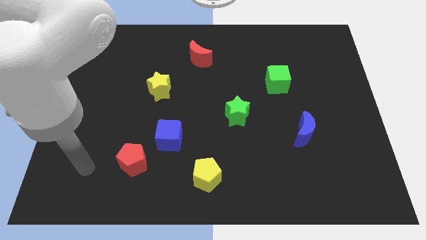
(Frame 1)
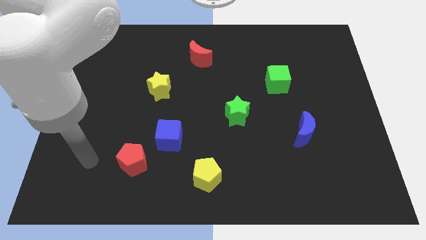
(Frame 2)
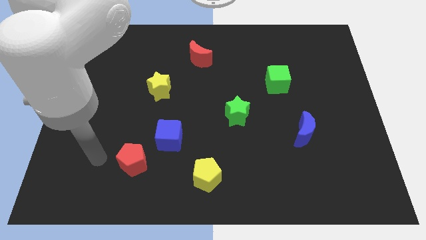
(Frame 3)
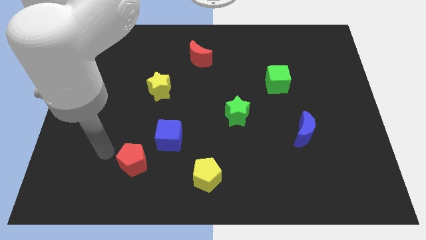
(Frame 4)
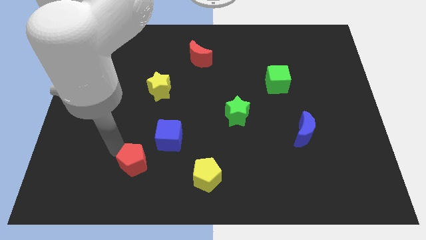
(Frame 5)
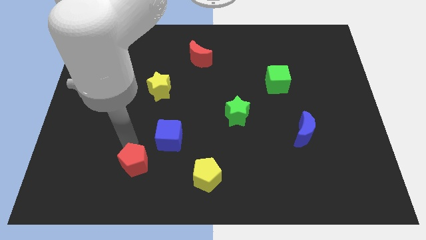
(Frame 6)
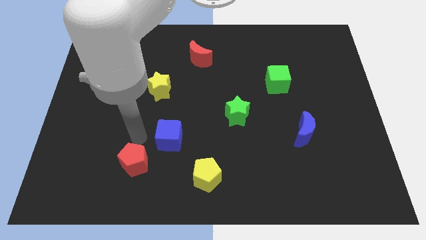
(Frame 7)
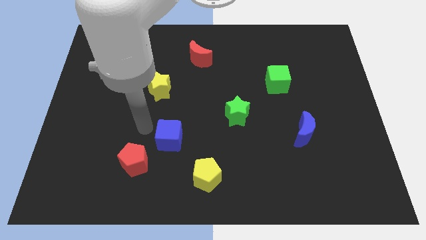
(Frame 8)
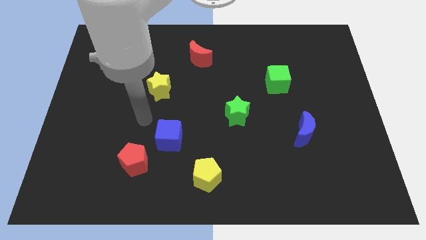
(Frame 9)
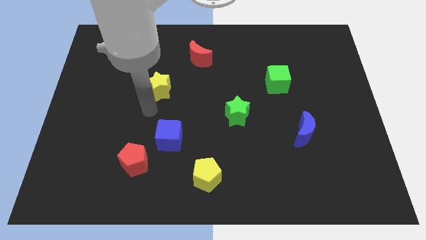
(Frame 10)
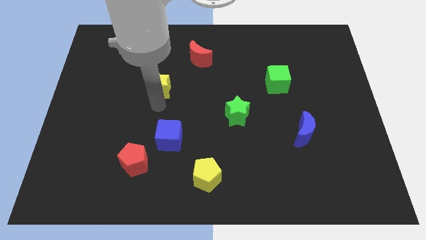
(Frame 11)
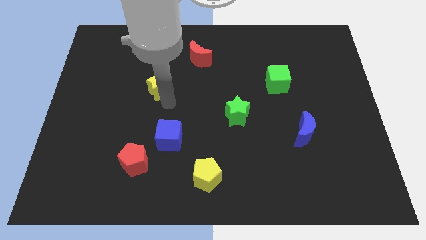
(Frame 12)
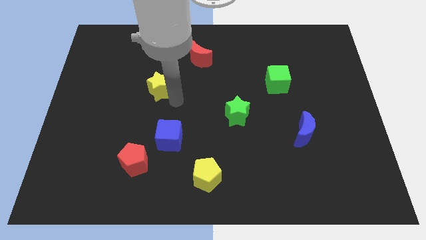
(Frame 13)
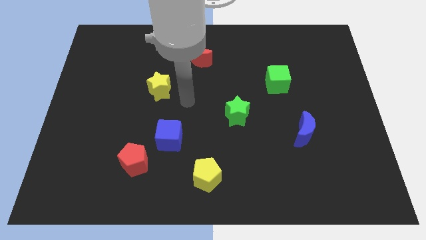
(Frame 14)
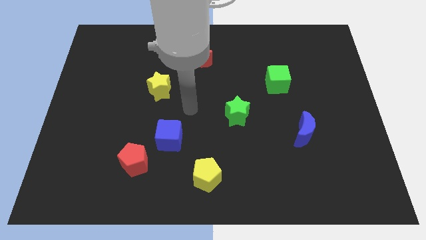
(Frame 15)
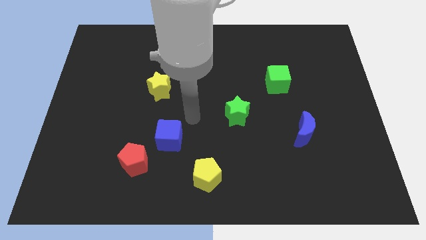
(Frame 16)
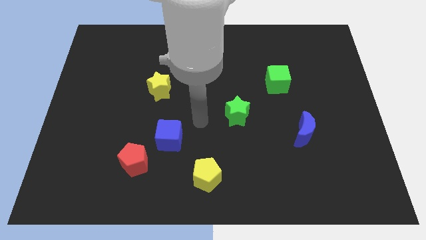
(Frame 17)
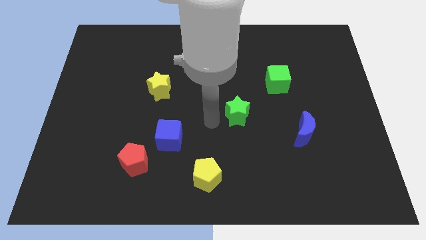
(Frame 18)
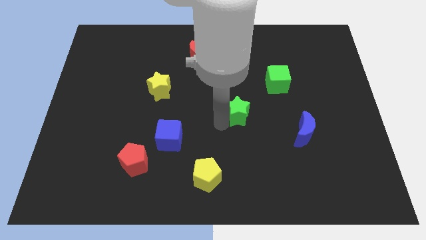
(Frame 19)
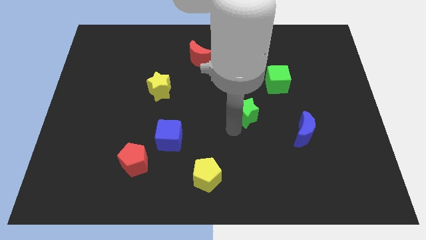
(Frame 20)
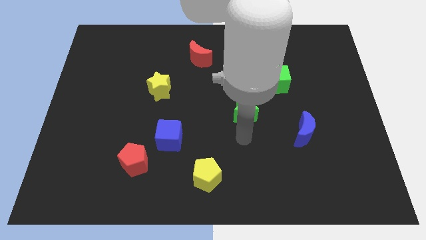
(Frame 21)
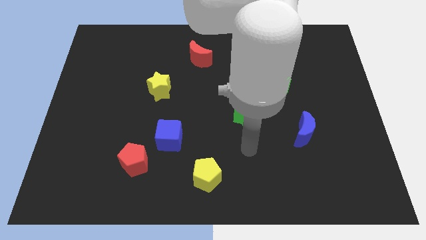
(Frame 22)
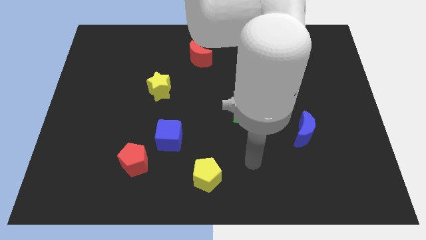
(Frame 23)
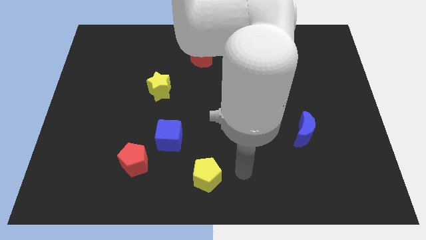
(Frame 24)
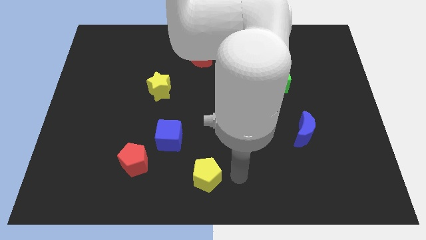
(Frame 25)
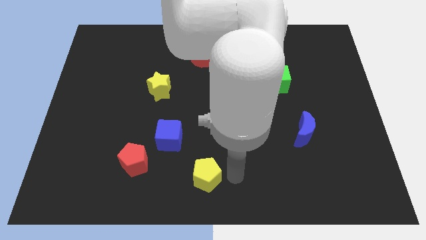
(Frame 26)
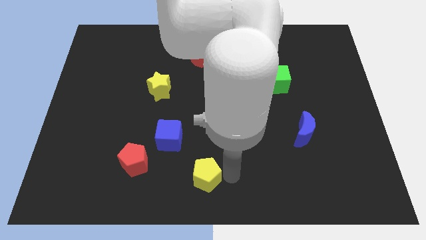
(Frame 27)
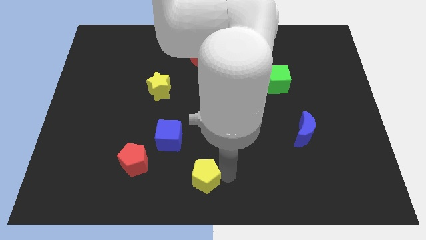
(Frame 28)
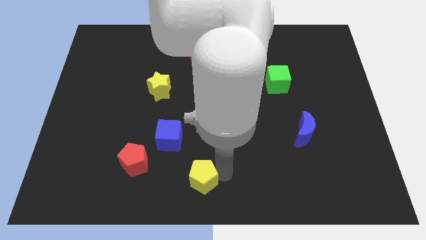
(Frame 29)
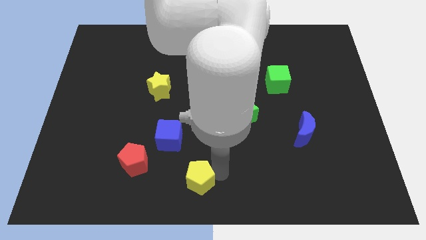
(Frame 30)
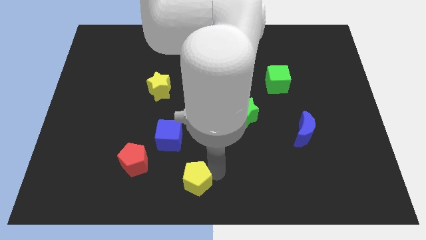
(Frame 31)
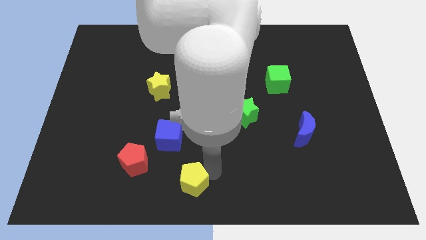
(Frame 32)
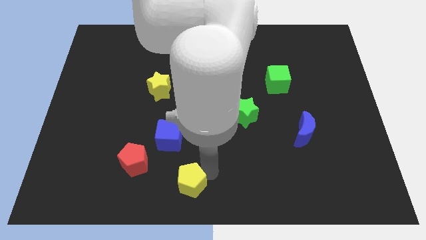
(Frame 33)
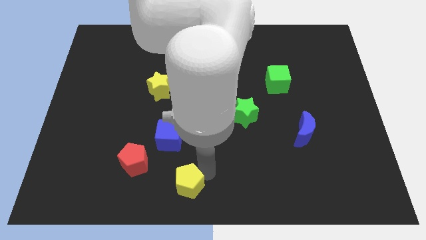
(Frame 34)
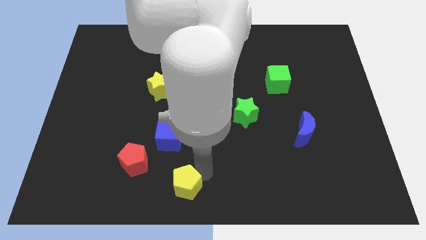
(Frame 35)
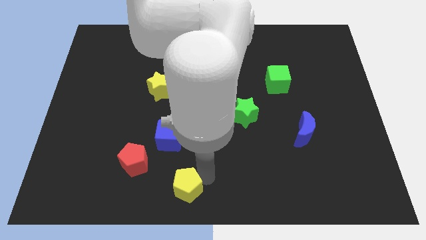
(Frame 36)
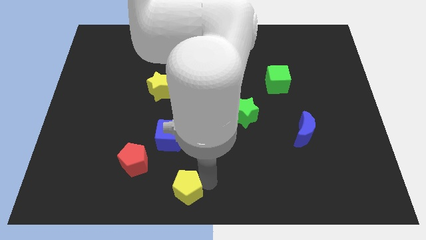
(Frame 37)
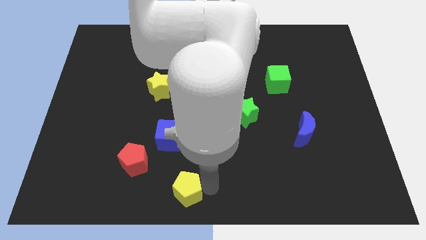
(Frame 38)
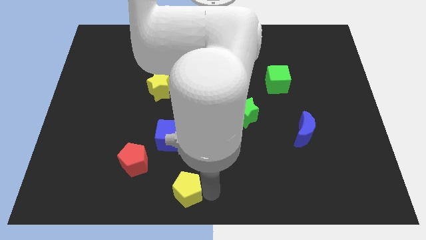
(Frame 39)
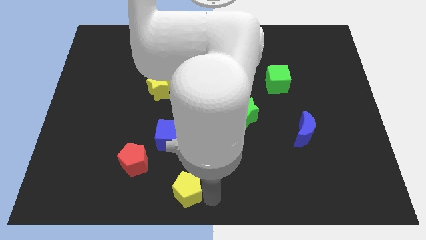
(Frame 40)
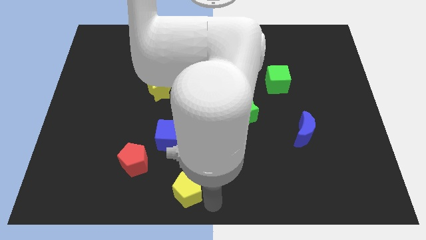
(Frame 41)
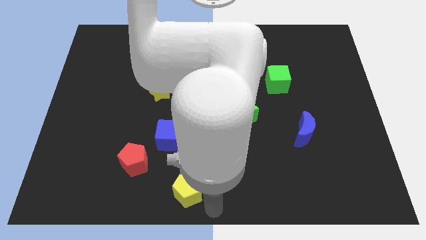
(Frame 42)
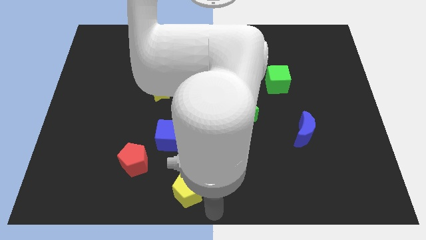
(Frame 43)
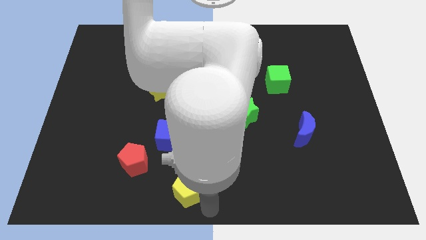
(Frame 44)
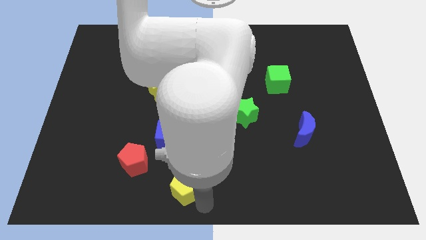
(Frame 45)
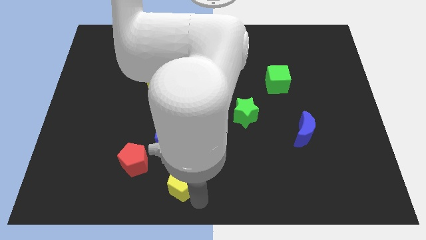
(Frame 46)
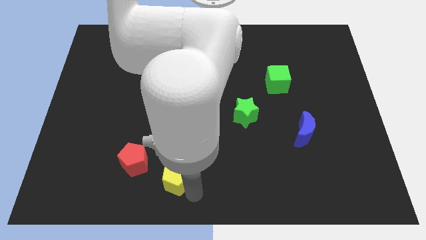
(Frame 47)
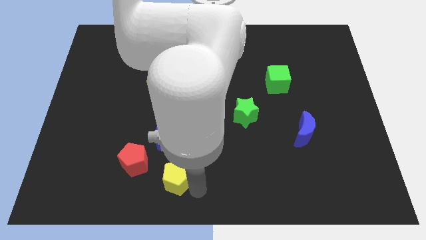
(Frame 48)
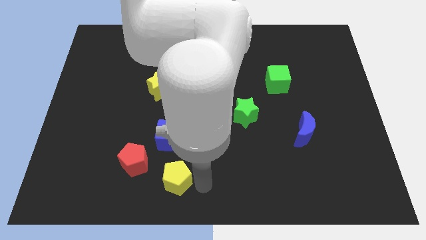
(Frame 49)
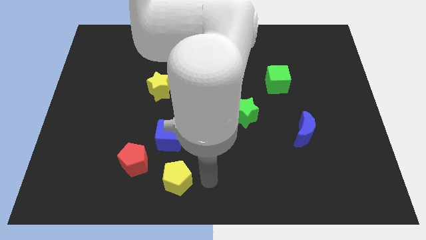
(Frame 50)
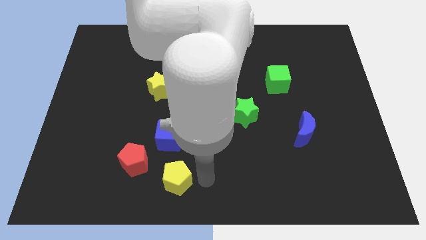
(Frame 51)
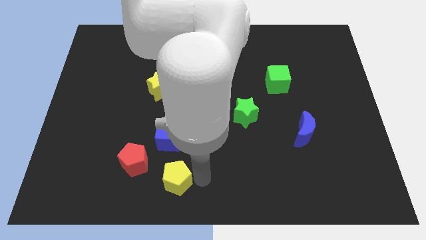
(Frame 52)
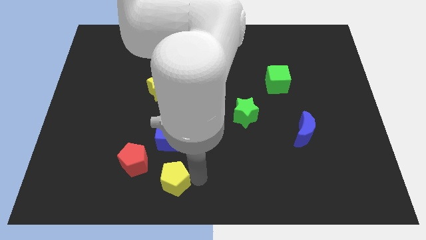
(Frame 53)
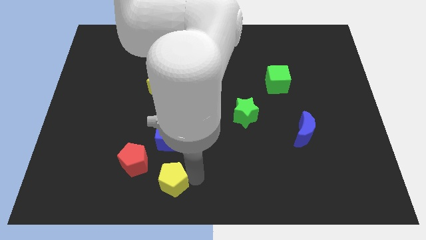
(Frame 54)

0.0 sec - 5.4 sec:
move the yellow pentagon to the left somewhat

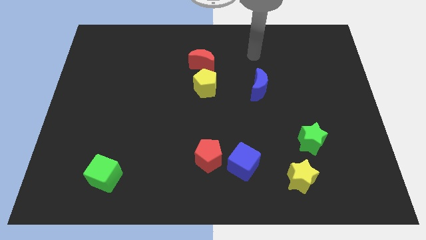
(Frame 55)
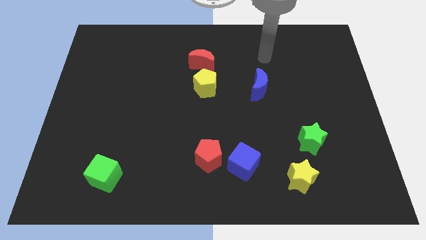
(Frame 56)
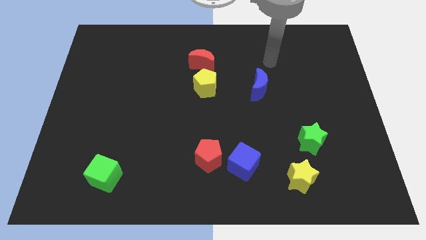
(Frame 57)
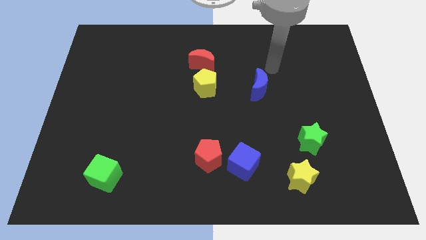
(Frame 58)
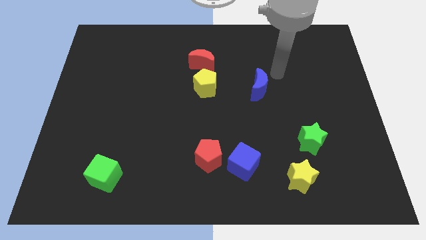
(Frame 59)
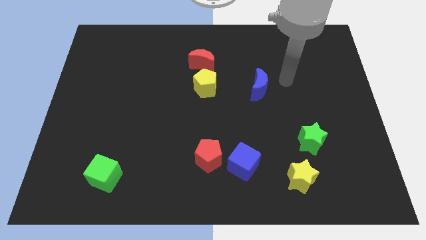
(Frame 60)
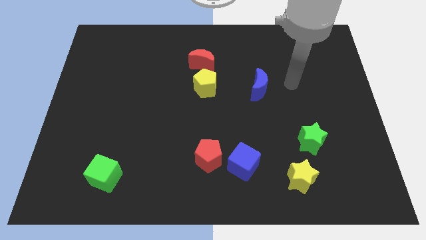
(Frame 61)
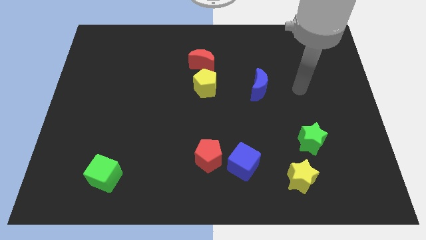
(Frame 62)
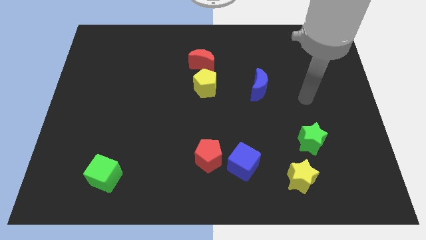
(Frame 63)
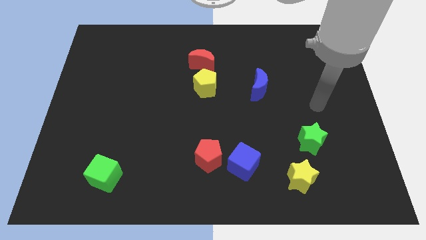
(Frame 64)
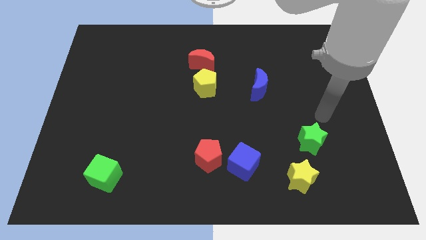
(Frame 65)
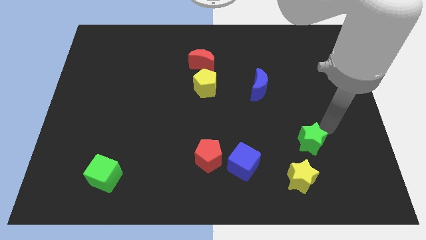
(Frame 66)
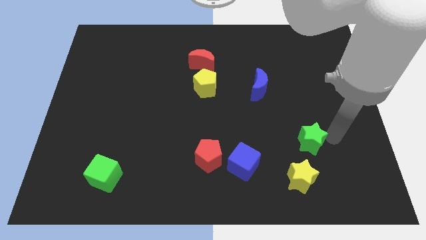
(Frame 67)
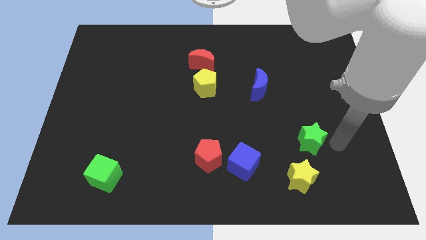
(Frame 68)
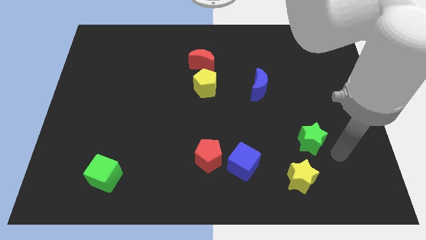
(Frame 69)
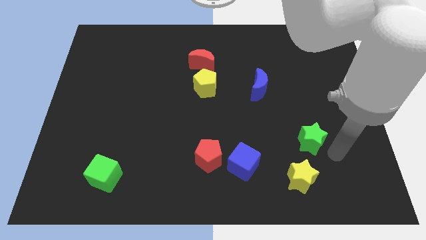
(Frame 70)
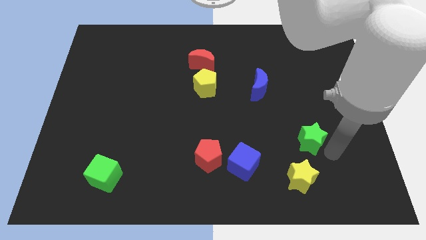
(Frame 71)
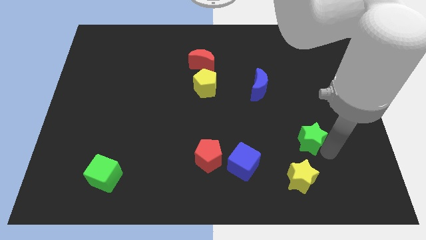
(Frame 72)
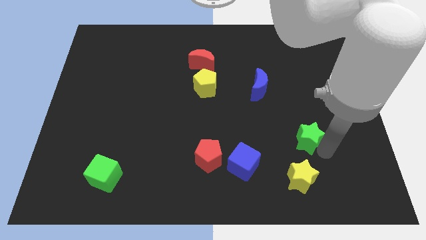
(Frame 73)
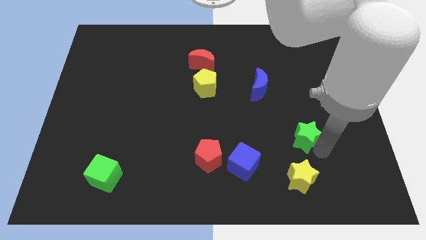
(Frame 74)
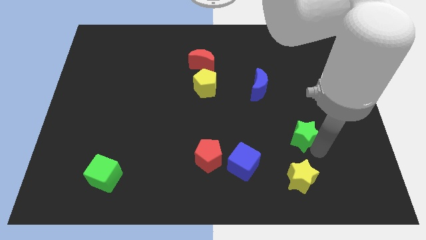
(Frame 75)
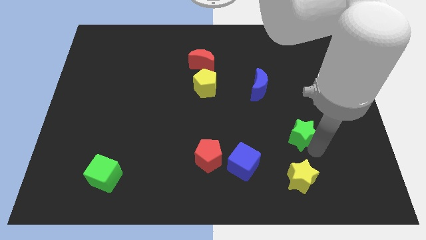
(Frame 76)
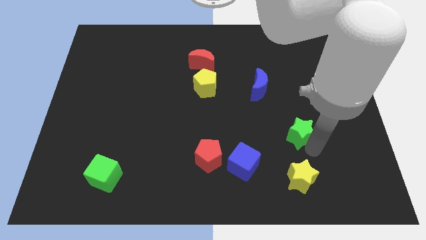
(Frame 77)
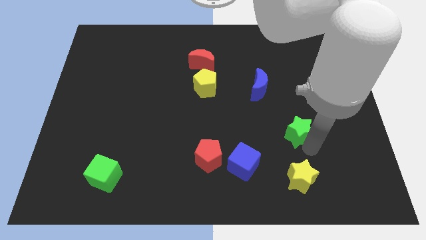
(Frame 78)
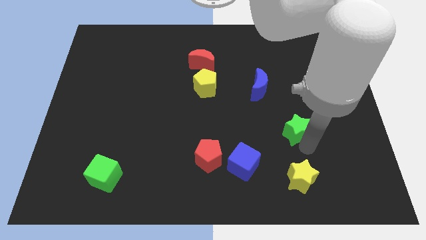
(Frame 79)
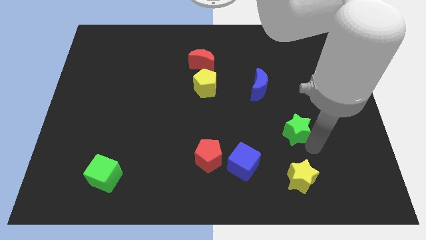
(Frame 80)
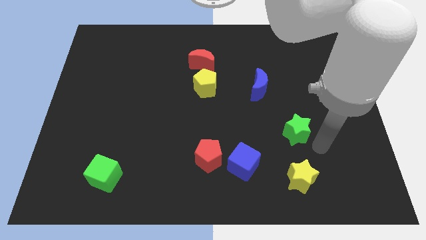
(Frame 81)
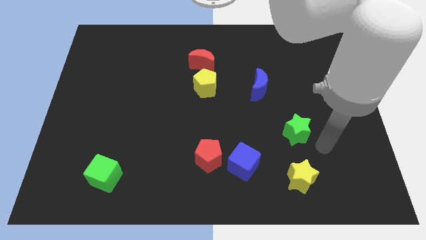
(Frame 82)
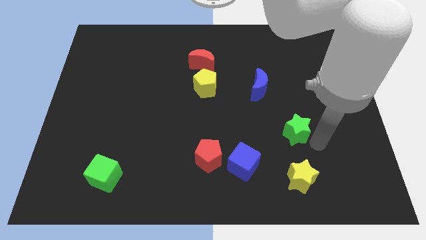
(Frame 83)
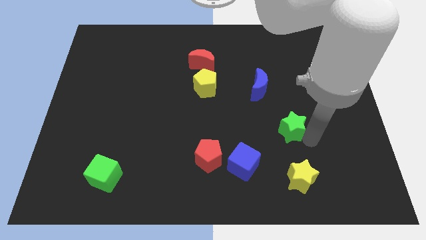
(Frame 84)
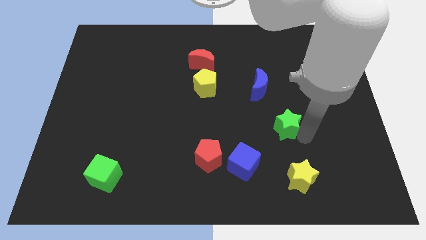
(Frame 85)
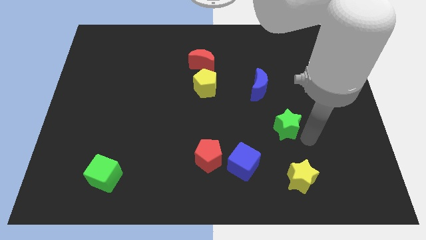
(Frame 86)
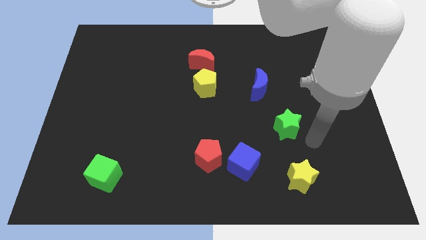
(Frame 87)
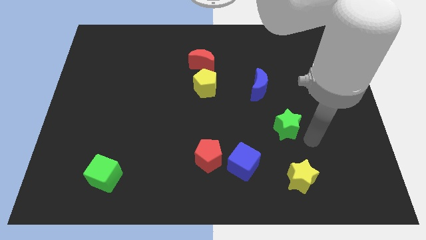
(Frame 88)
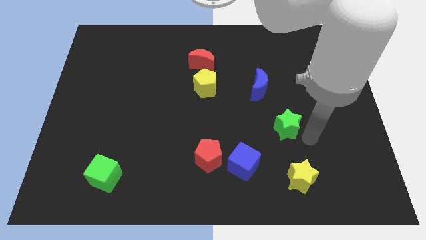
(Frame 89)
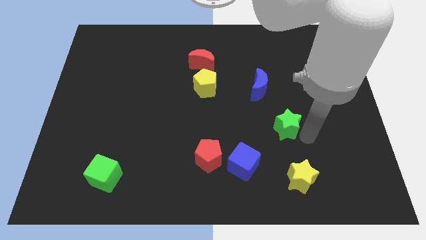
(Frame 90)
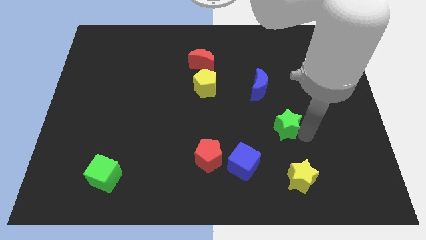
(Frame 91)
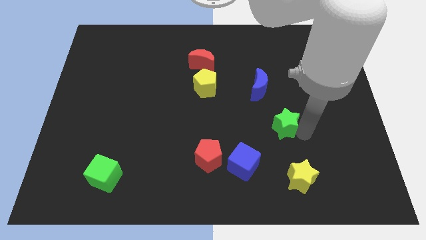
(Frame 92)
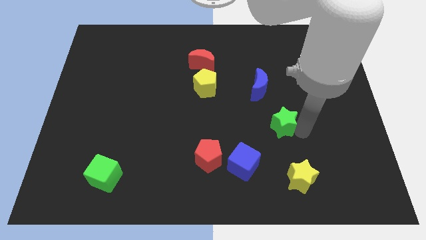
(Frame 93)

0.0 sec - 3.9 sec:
slightly push the green star up and then left
